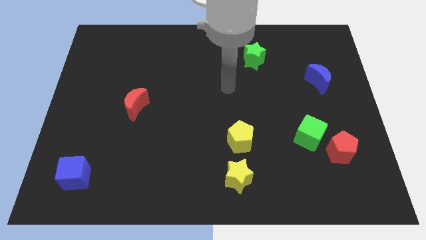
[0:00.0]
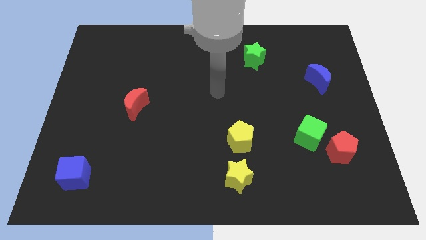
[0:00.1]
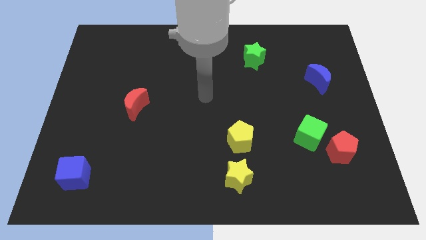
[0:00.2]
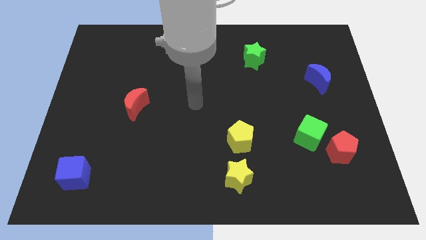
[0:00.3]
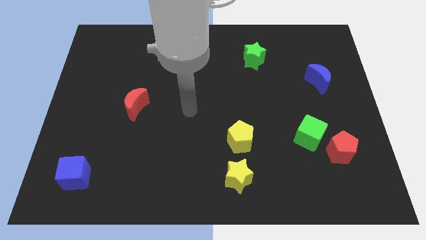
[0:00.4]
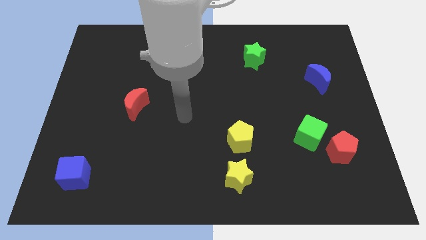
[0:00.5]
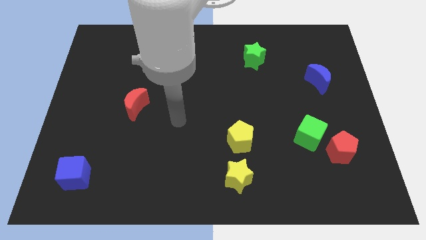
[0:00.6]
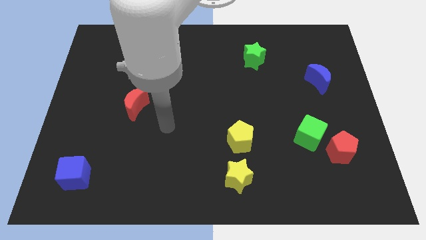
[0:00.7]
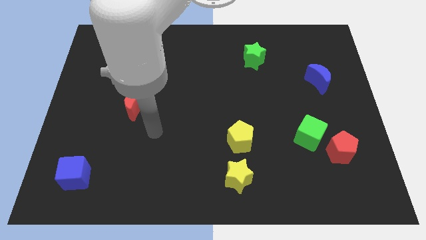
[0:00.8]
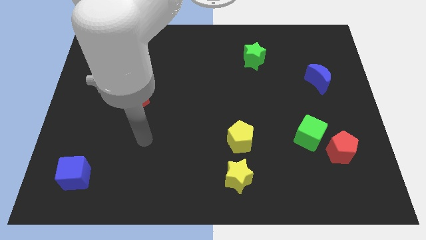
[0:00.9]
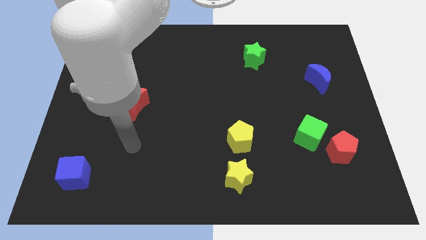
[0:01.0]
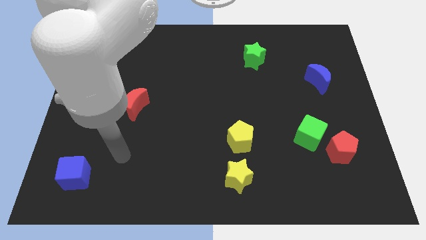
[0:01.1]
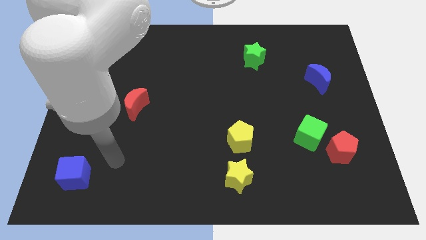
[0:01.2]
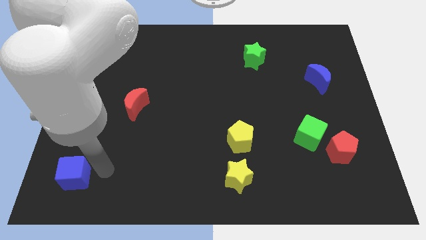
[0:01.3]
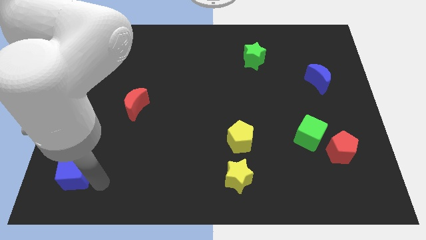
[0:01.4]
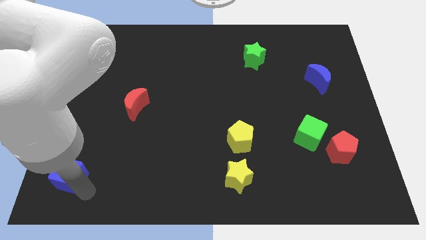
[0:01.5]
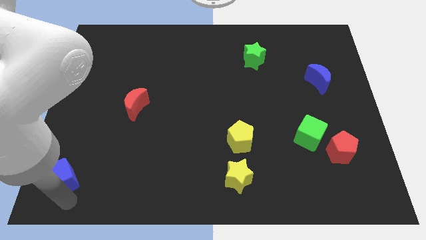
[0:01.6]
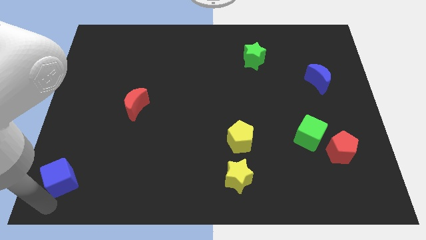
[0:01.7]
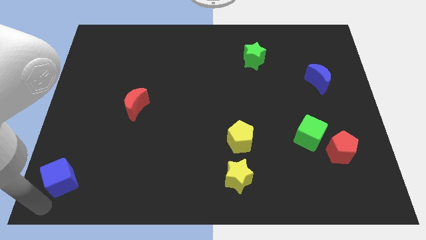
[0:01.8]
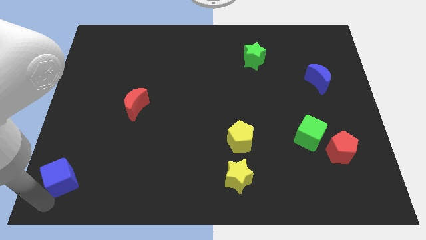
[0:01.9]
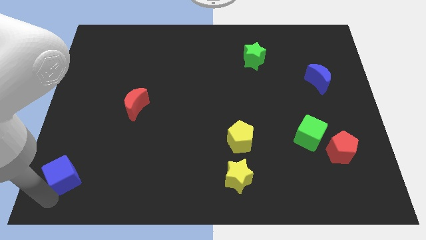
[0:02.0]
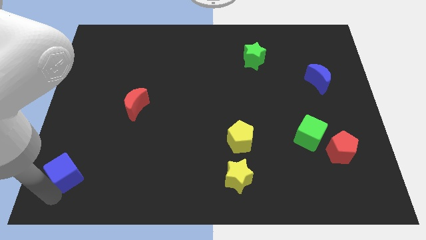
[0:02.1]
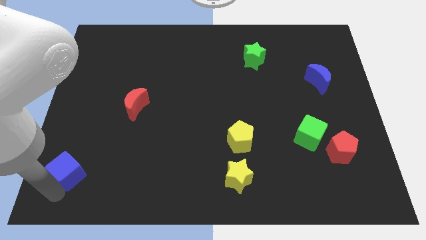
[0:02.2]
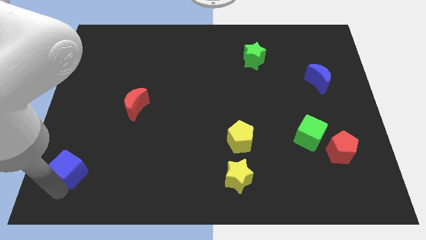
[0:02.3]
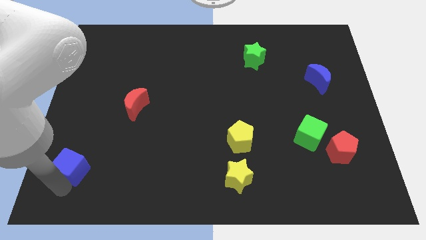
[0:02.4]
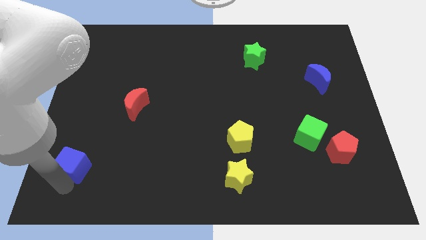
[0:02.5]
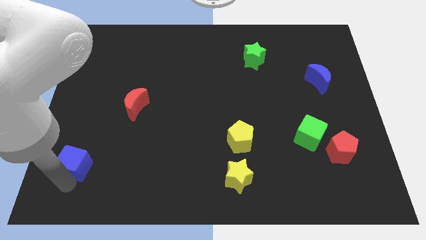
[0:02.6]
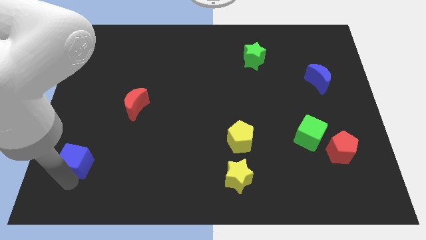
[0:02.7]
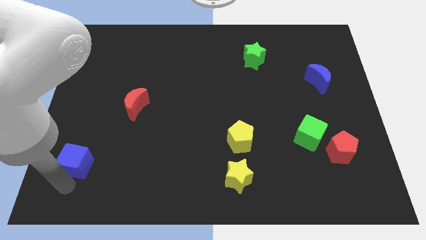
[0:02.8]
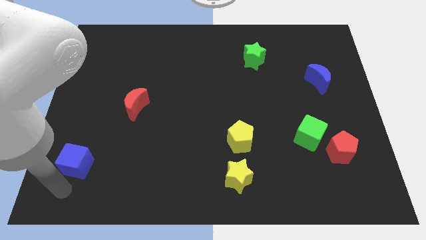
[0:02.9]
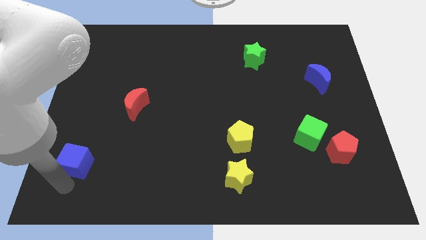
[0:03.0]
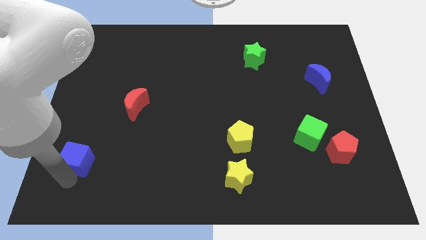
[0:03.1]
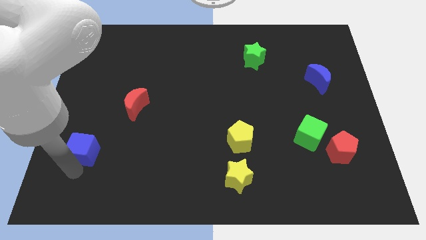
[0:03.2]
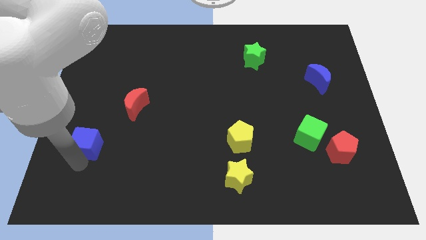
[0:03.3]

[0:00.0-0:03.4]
move the blue cube slightly upwards

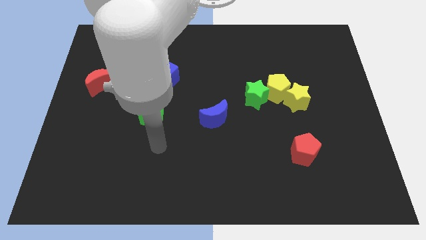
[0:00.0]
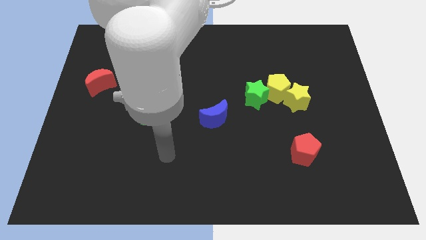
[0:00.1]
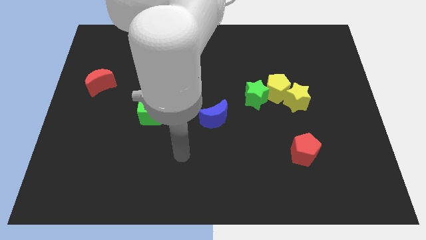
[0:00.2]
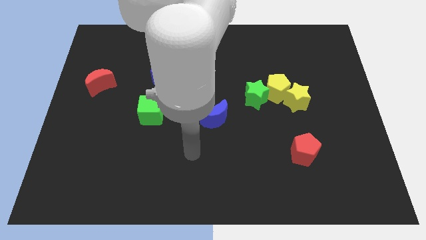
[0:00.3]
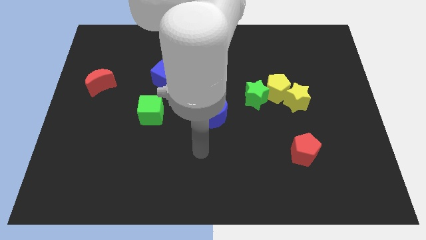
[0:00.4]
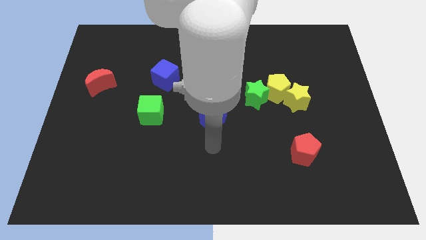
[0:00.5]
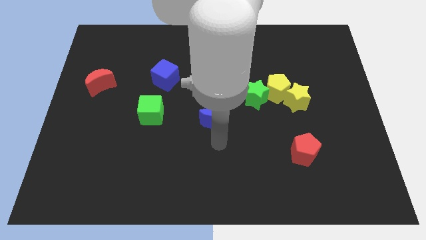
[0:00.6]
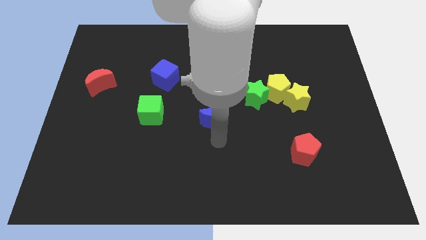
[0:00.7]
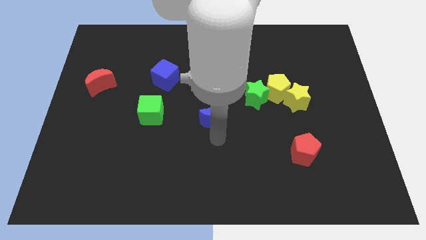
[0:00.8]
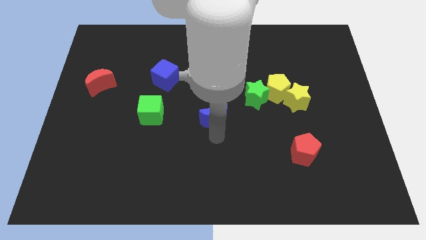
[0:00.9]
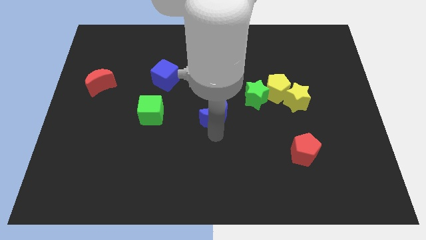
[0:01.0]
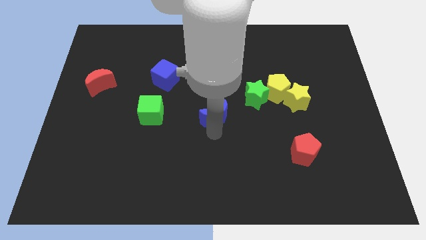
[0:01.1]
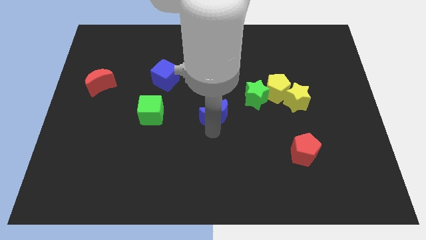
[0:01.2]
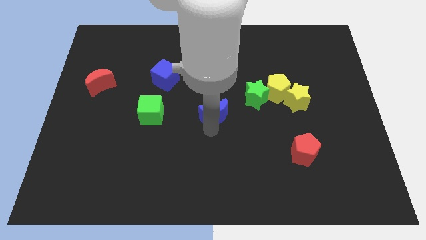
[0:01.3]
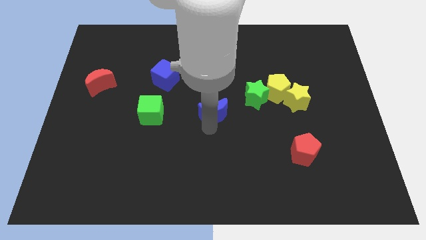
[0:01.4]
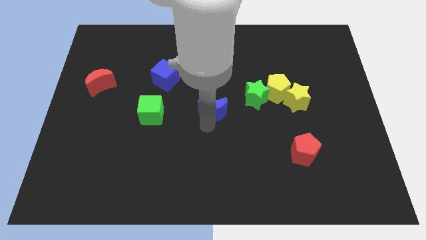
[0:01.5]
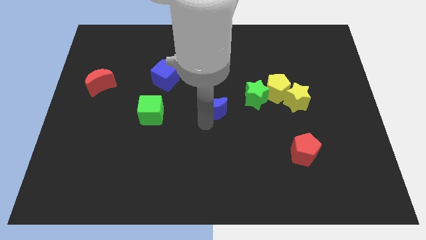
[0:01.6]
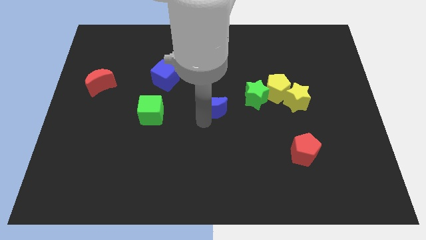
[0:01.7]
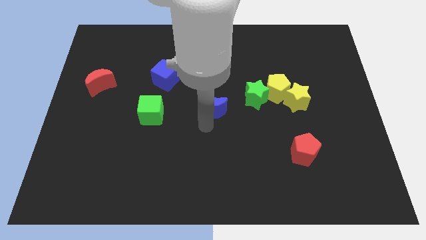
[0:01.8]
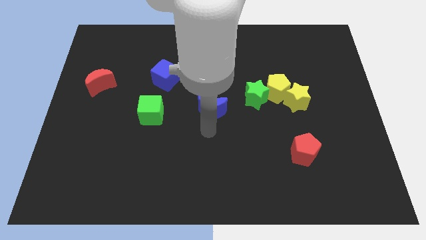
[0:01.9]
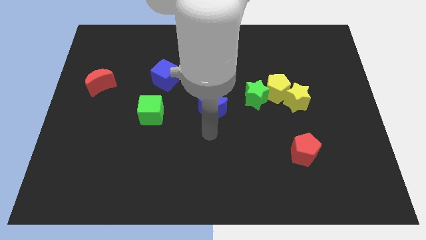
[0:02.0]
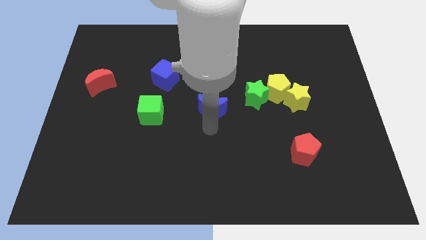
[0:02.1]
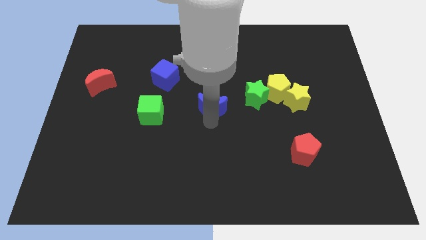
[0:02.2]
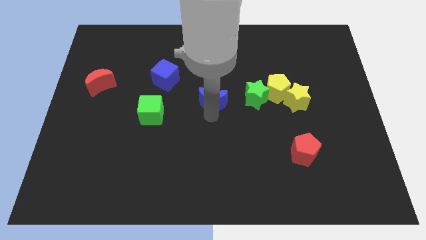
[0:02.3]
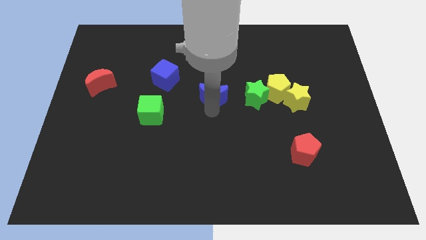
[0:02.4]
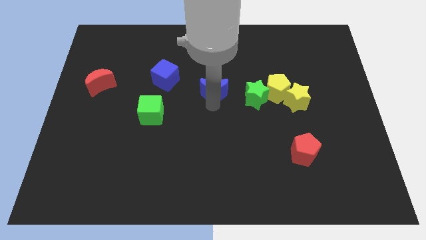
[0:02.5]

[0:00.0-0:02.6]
move the blue moon up somewhat

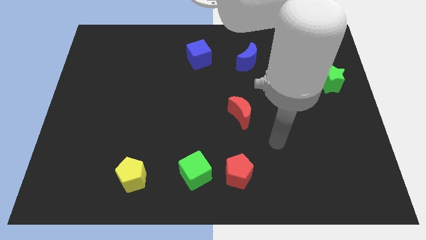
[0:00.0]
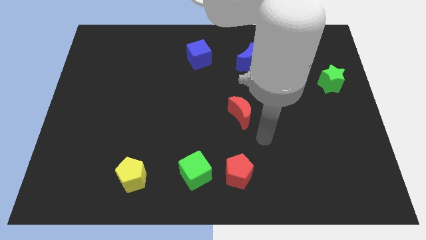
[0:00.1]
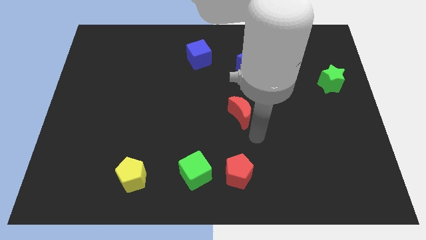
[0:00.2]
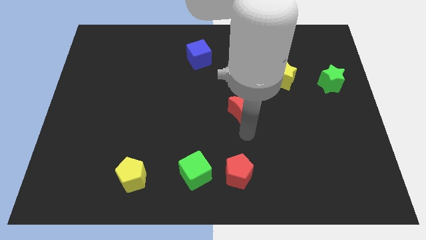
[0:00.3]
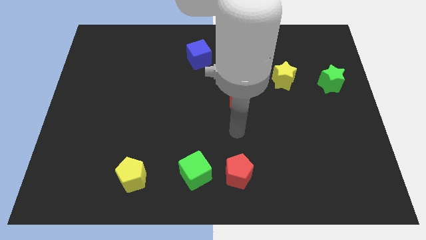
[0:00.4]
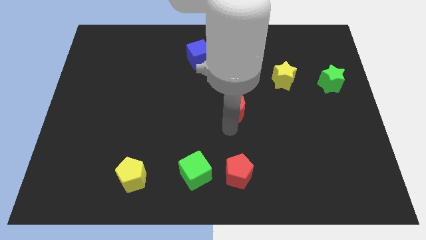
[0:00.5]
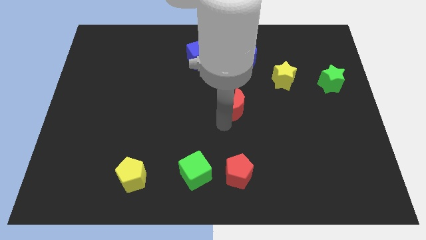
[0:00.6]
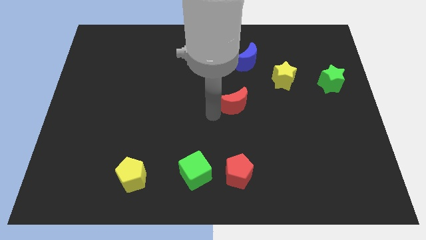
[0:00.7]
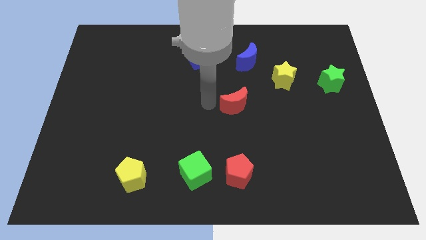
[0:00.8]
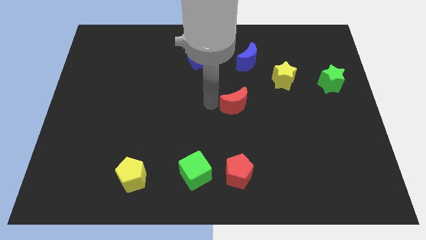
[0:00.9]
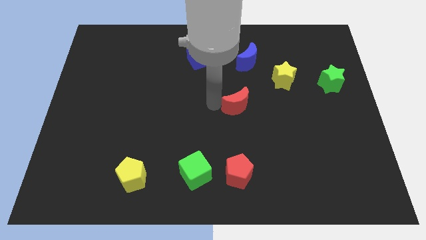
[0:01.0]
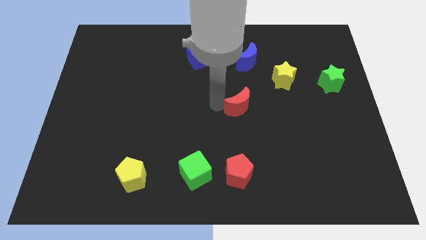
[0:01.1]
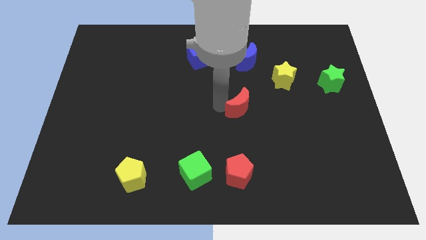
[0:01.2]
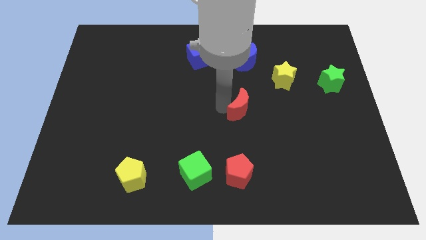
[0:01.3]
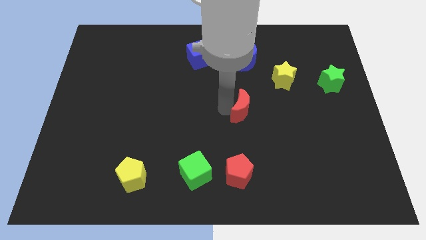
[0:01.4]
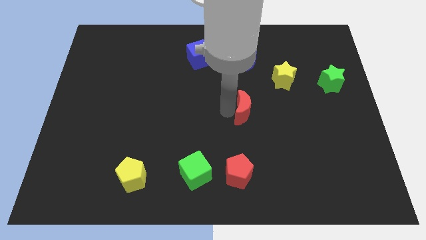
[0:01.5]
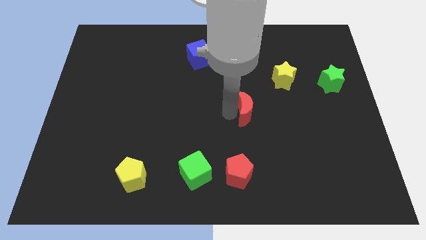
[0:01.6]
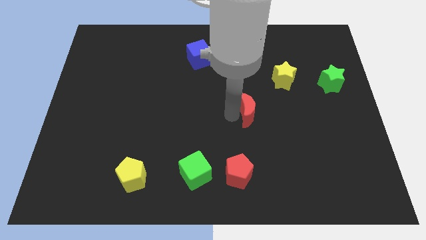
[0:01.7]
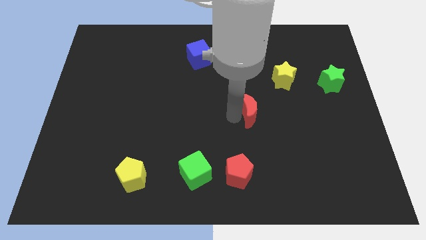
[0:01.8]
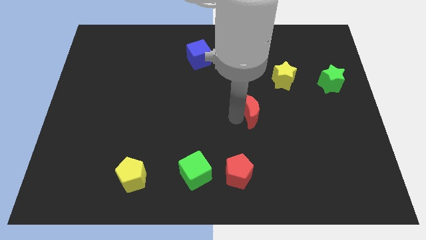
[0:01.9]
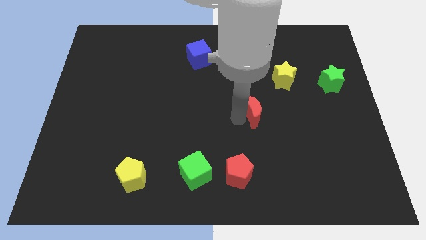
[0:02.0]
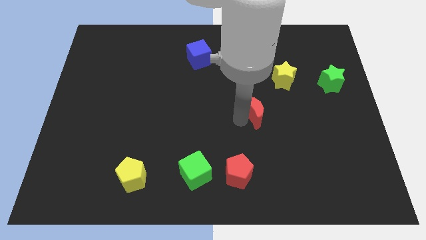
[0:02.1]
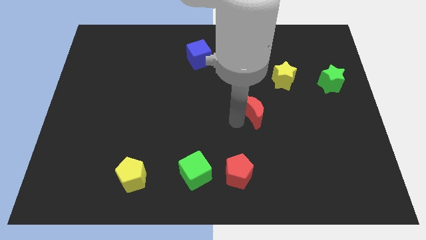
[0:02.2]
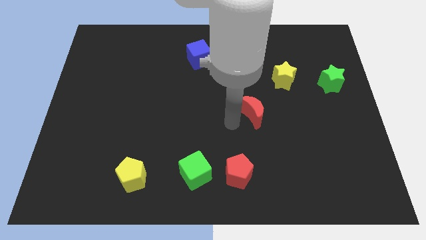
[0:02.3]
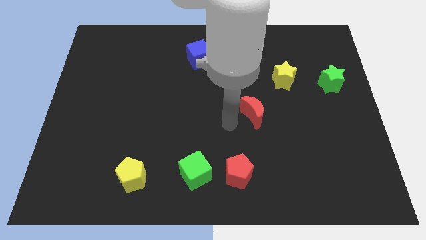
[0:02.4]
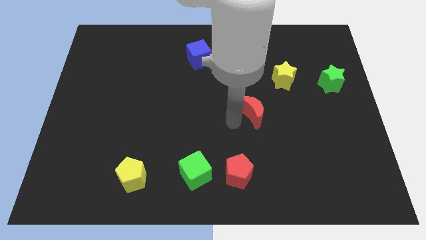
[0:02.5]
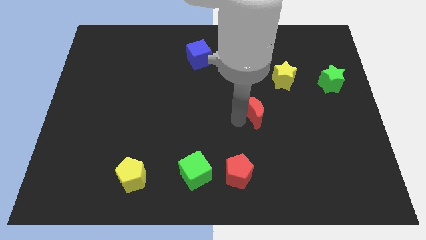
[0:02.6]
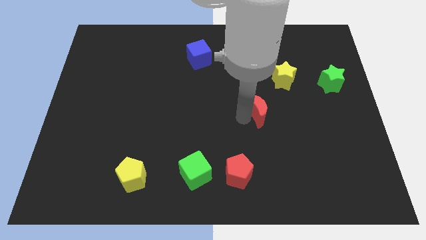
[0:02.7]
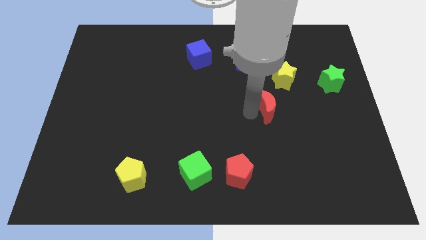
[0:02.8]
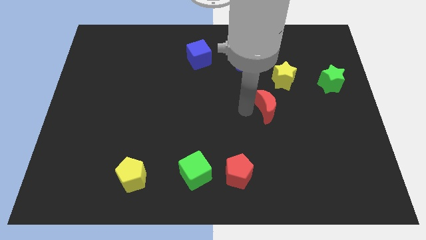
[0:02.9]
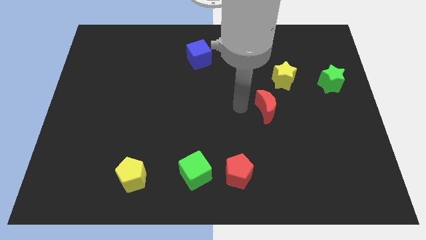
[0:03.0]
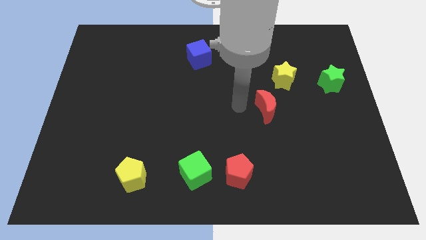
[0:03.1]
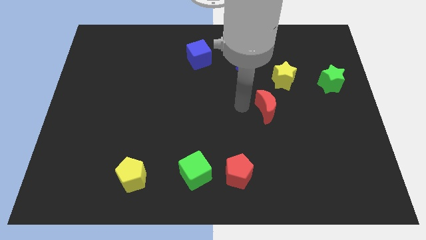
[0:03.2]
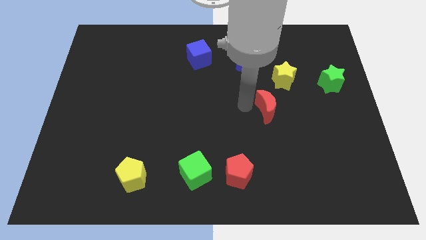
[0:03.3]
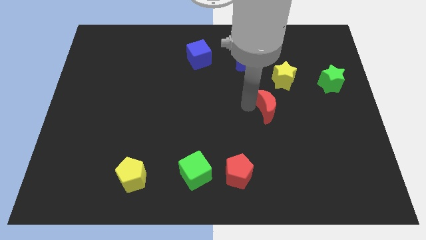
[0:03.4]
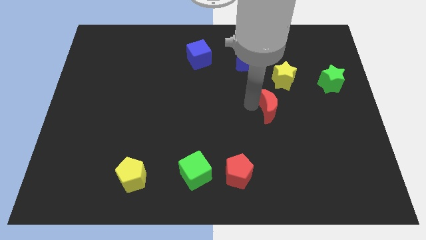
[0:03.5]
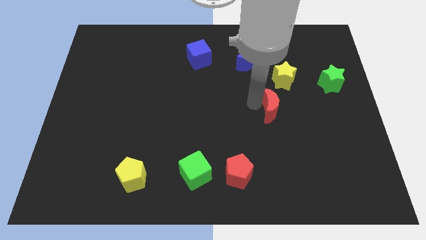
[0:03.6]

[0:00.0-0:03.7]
slide the red moon slightly right
